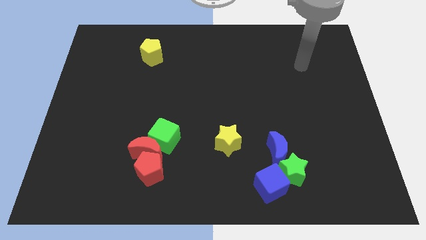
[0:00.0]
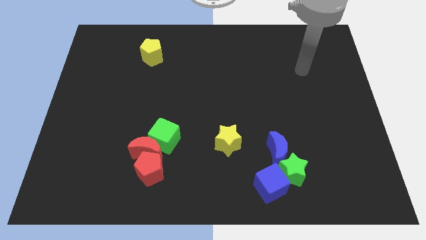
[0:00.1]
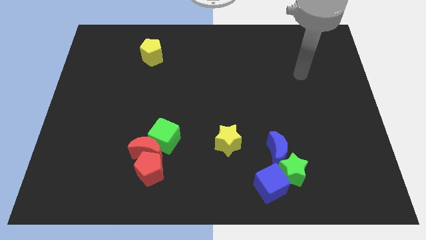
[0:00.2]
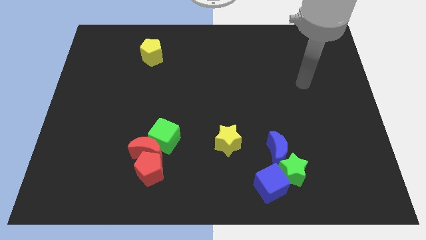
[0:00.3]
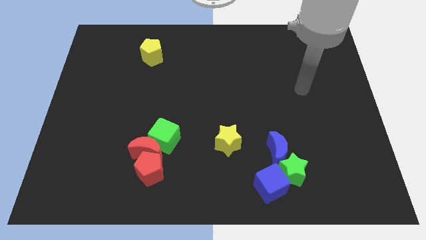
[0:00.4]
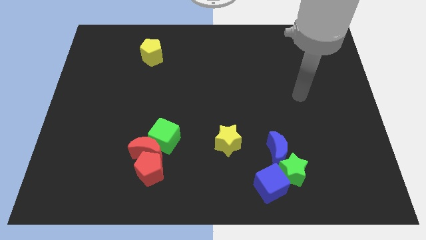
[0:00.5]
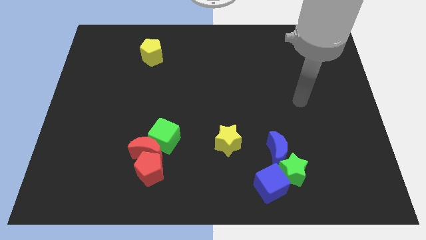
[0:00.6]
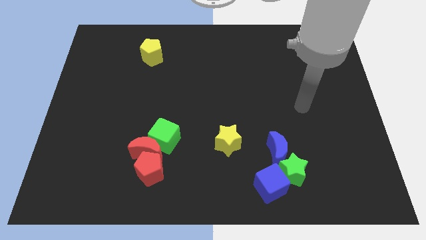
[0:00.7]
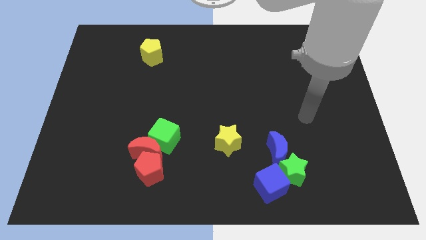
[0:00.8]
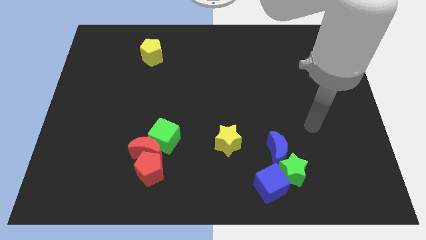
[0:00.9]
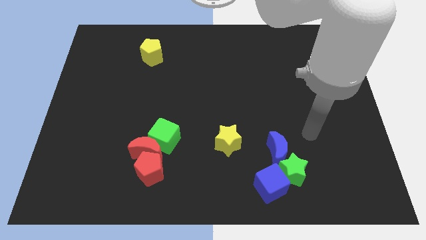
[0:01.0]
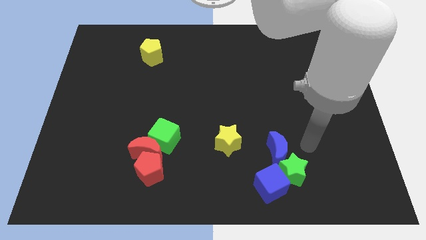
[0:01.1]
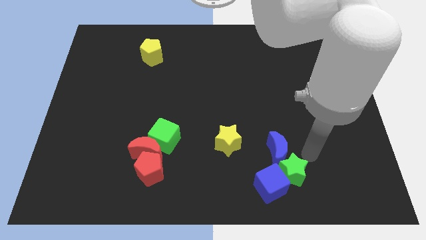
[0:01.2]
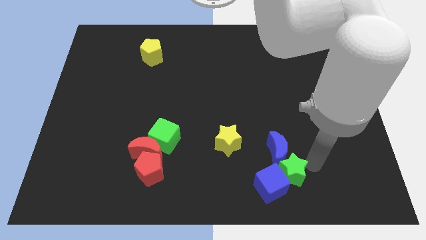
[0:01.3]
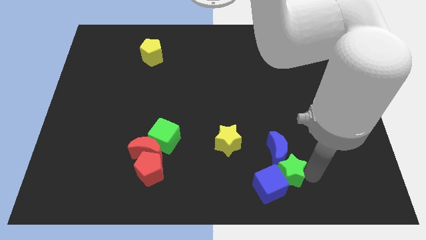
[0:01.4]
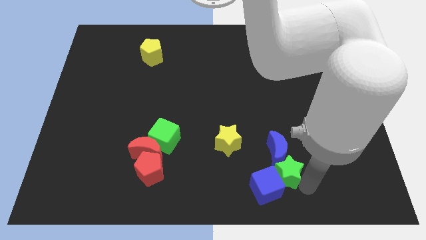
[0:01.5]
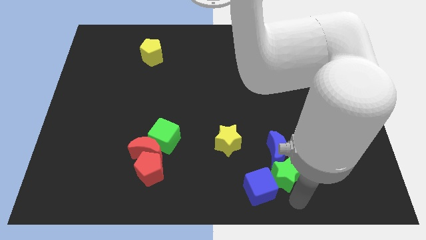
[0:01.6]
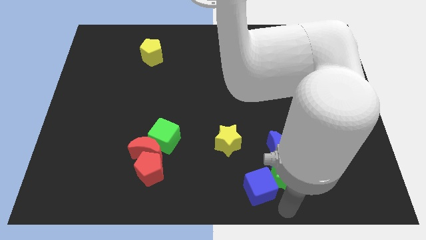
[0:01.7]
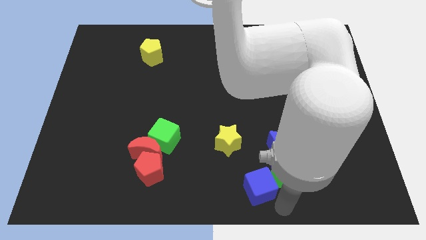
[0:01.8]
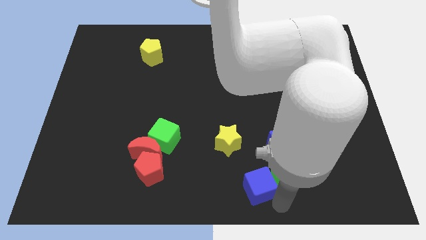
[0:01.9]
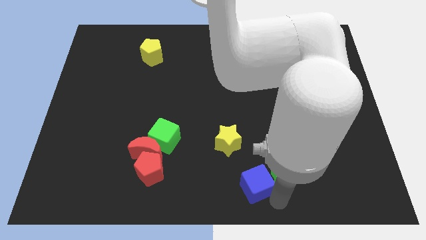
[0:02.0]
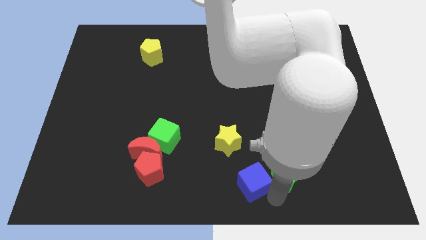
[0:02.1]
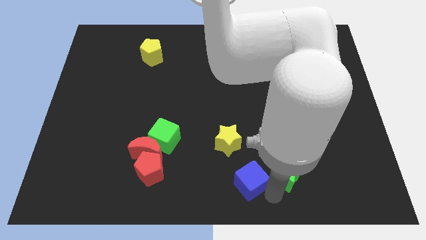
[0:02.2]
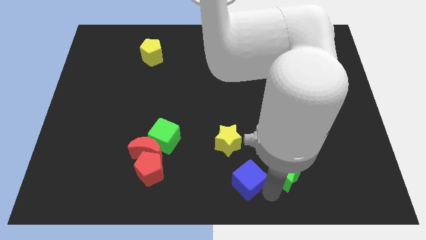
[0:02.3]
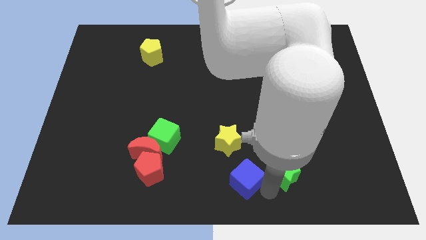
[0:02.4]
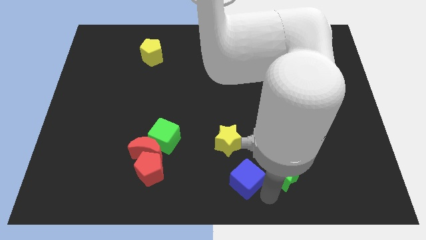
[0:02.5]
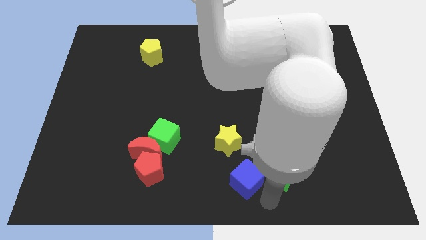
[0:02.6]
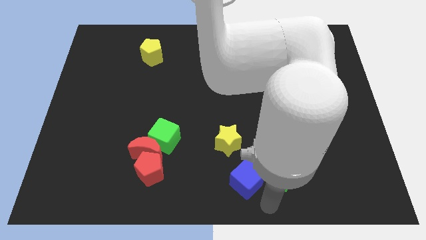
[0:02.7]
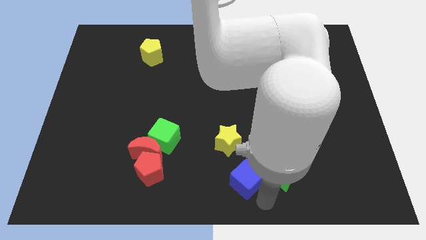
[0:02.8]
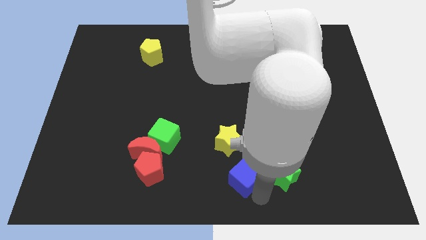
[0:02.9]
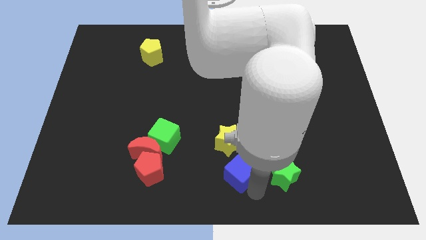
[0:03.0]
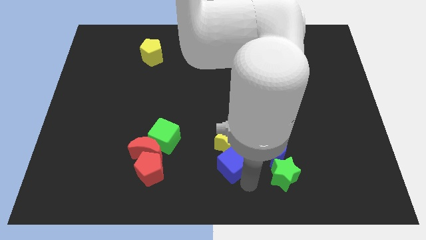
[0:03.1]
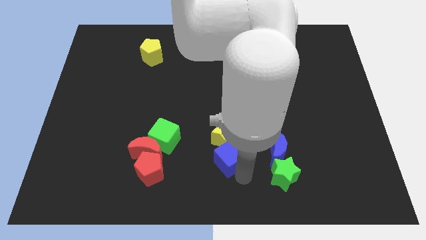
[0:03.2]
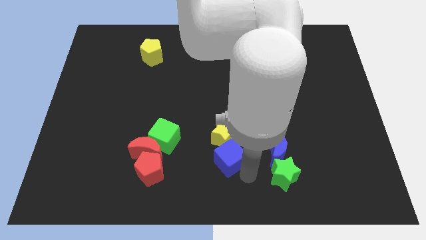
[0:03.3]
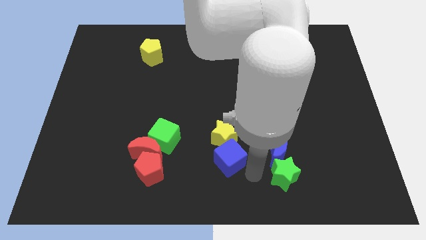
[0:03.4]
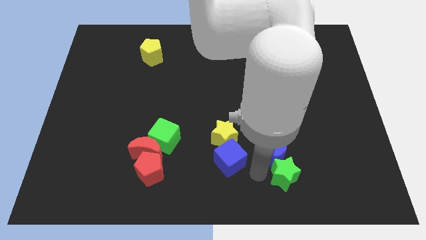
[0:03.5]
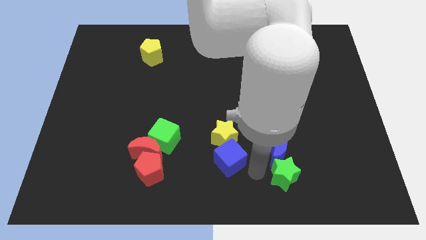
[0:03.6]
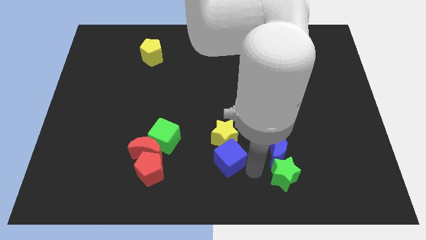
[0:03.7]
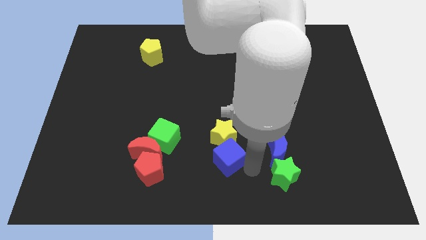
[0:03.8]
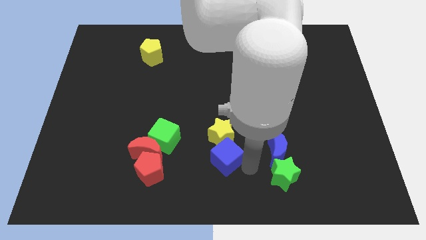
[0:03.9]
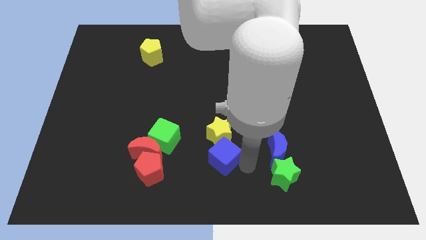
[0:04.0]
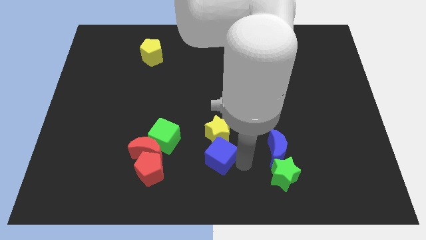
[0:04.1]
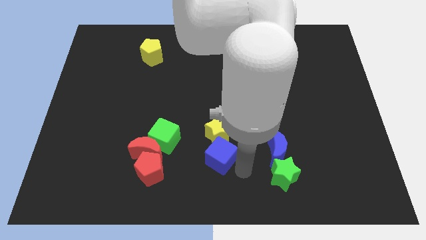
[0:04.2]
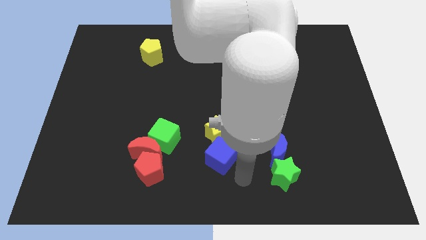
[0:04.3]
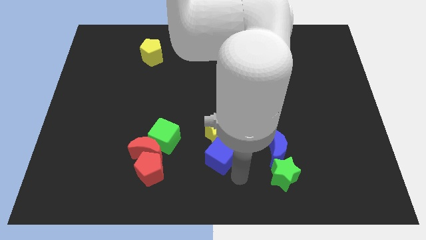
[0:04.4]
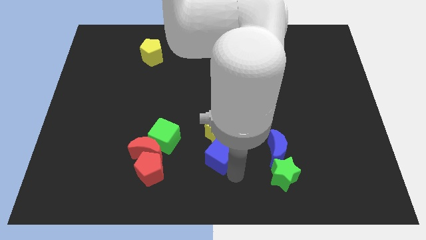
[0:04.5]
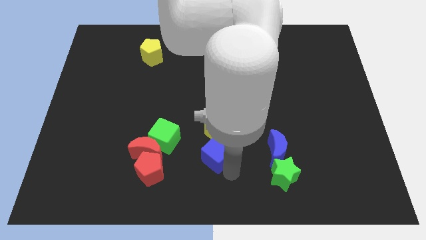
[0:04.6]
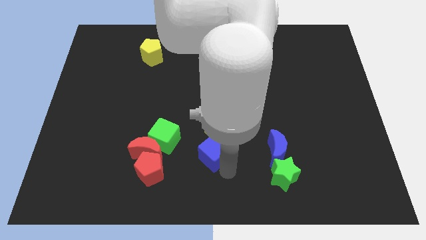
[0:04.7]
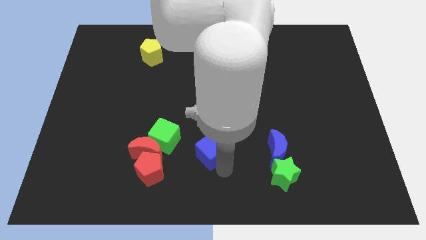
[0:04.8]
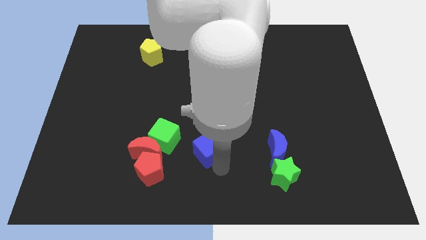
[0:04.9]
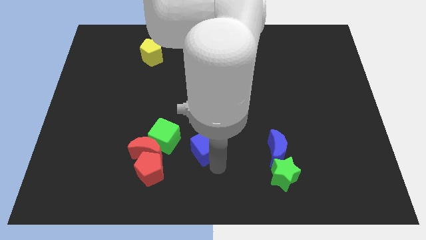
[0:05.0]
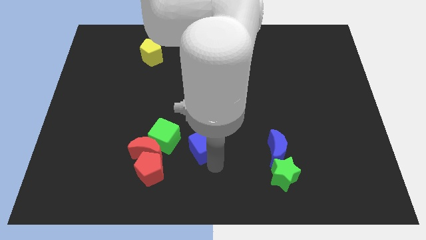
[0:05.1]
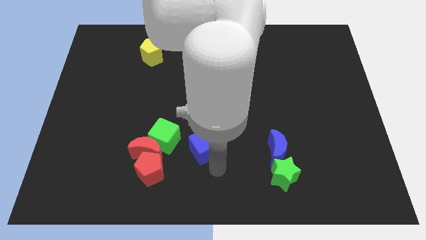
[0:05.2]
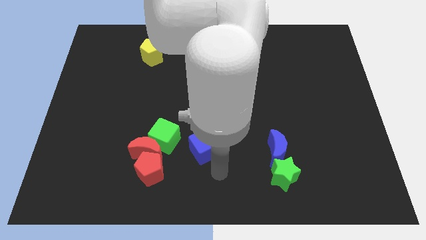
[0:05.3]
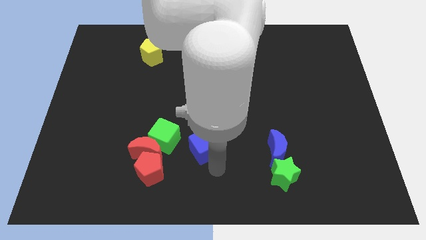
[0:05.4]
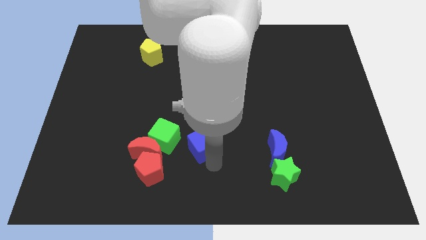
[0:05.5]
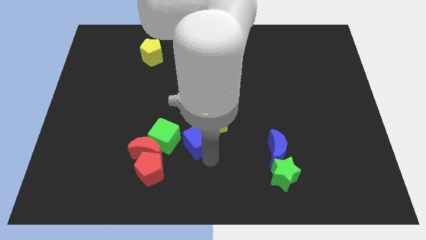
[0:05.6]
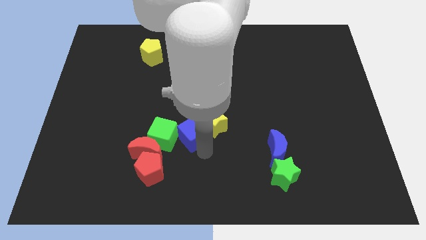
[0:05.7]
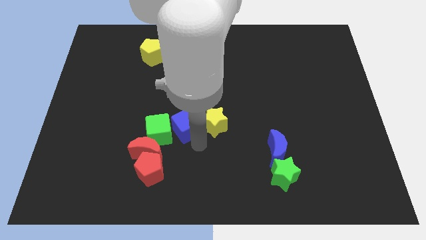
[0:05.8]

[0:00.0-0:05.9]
move the blue cube upwards and then to the left

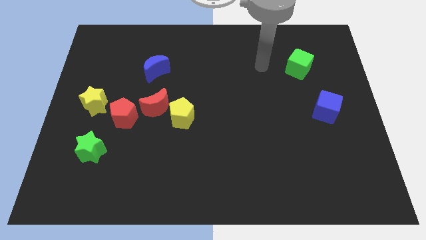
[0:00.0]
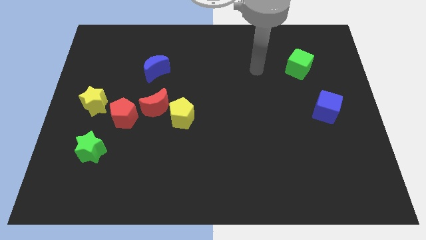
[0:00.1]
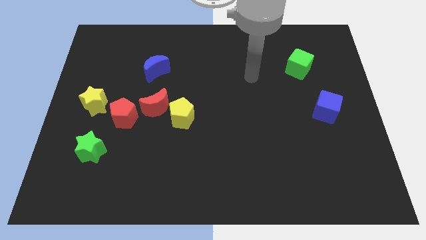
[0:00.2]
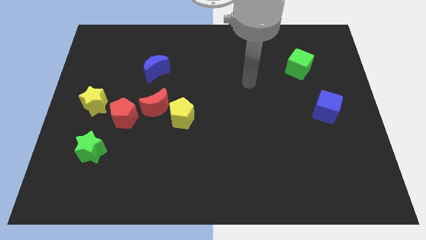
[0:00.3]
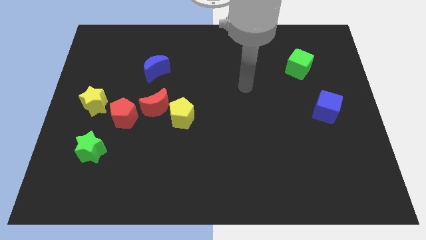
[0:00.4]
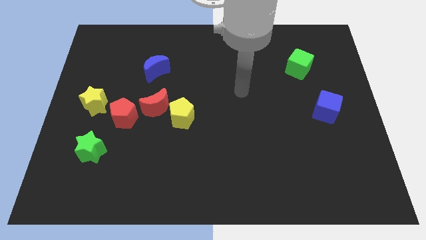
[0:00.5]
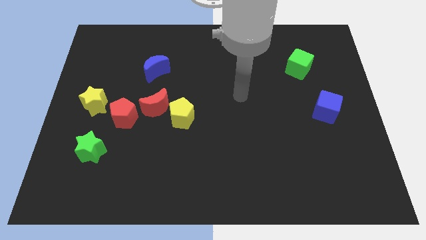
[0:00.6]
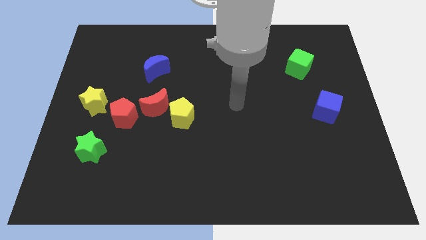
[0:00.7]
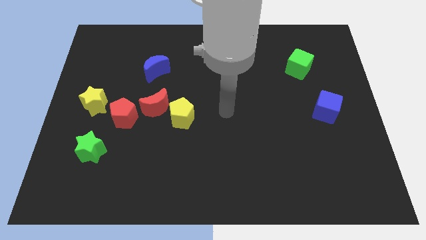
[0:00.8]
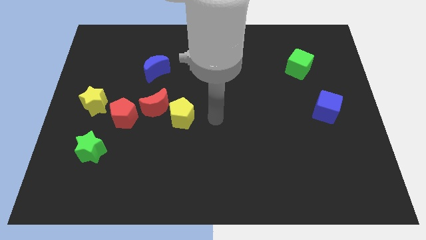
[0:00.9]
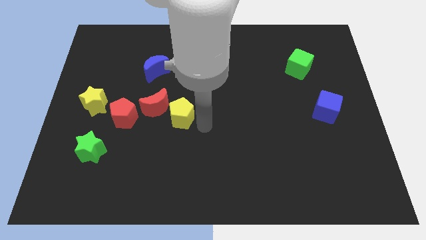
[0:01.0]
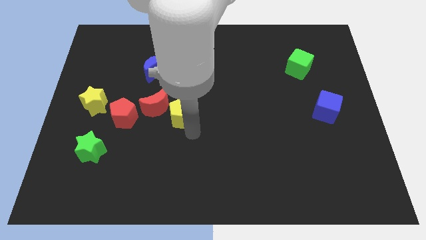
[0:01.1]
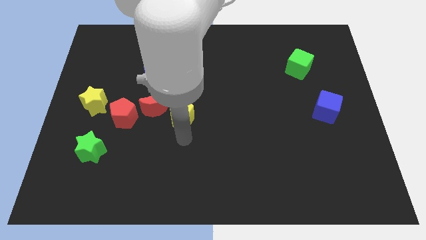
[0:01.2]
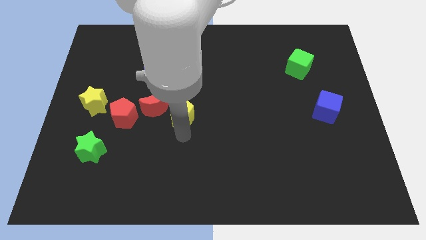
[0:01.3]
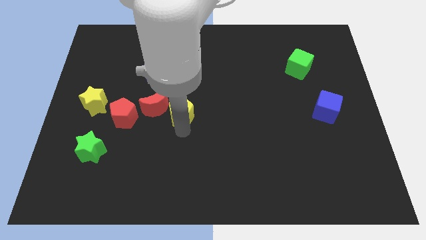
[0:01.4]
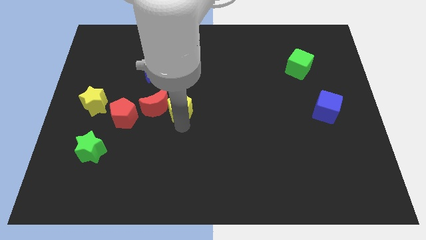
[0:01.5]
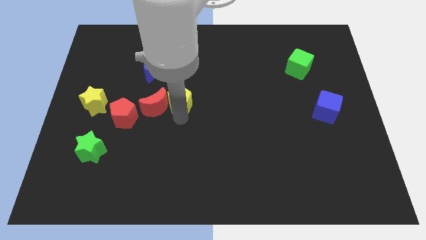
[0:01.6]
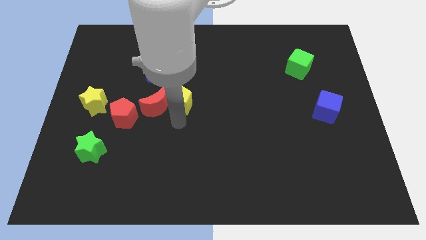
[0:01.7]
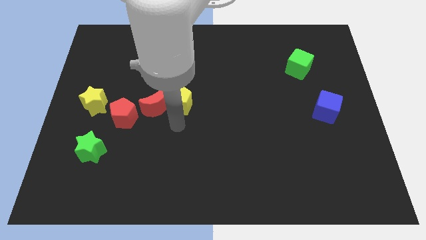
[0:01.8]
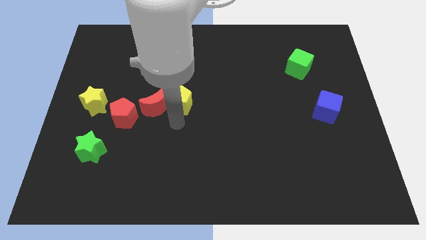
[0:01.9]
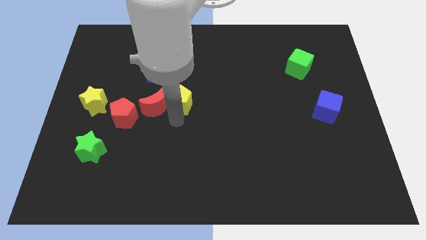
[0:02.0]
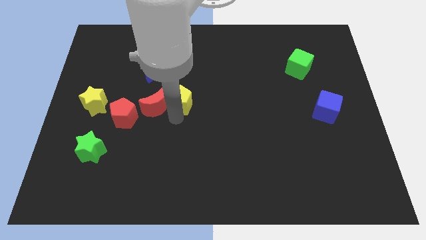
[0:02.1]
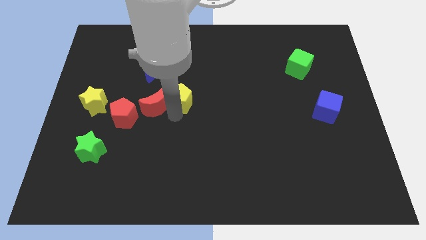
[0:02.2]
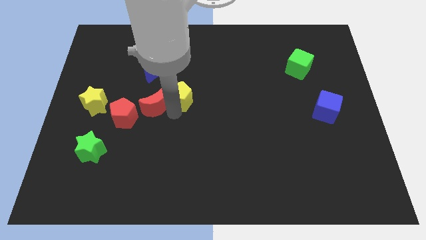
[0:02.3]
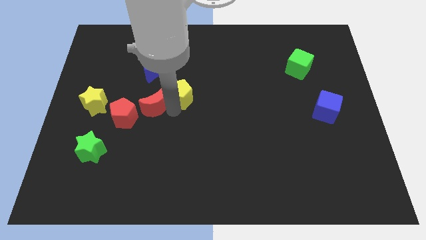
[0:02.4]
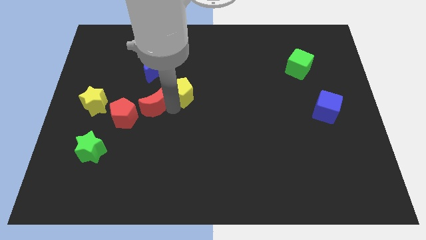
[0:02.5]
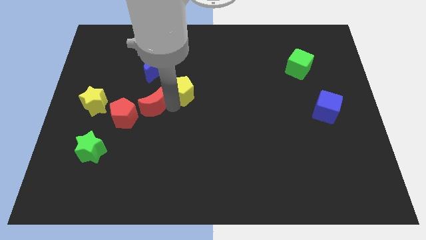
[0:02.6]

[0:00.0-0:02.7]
slightly move the yellow pentagon upwards
